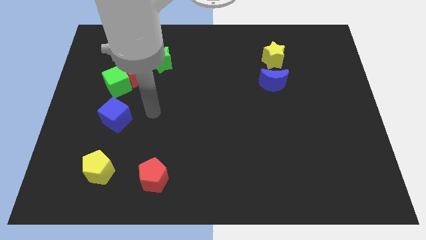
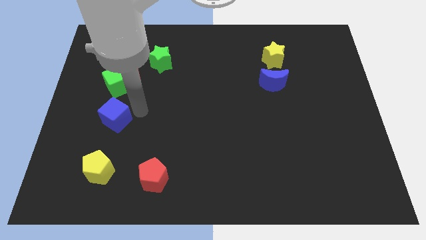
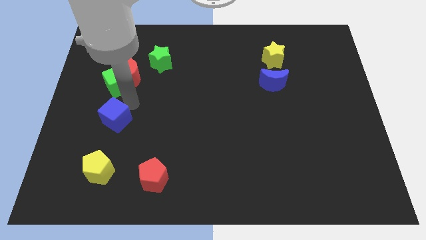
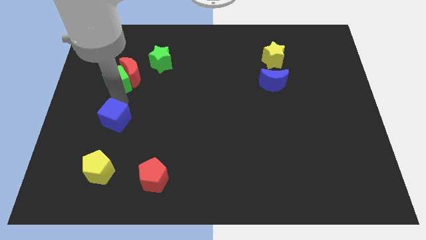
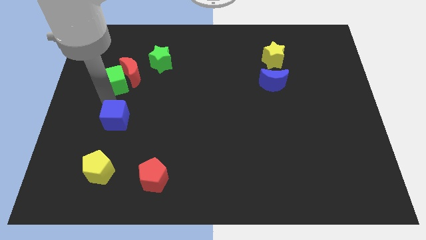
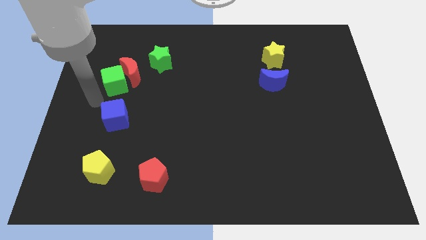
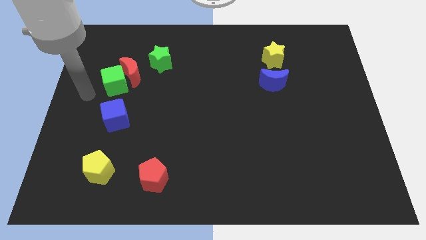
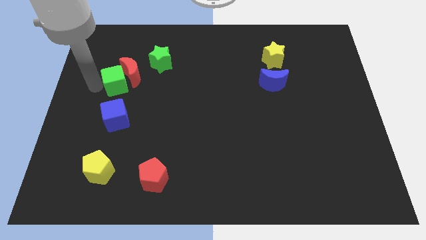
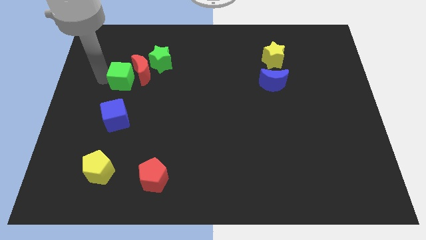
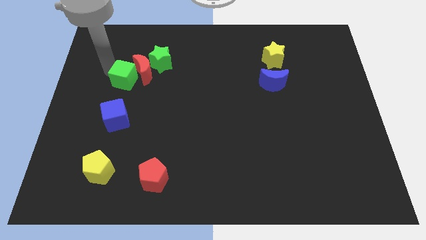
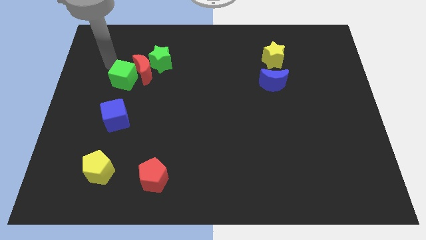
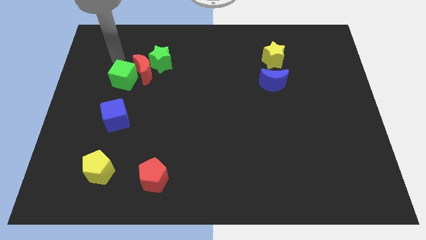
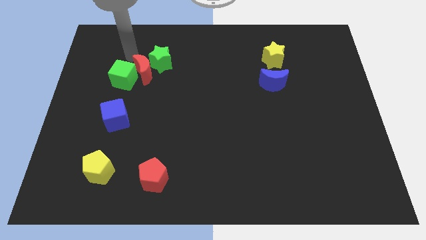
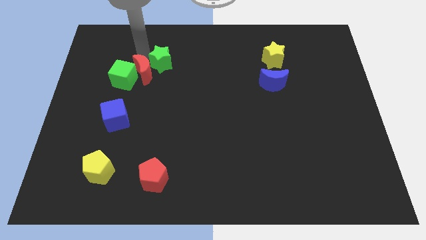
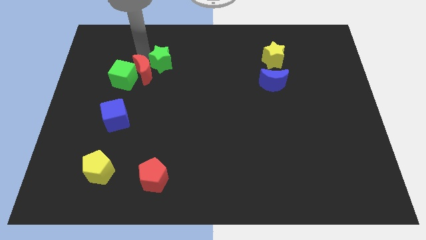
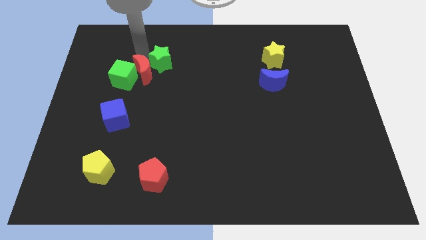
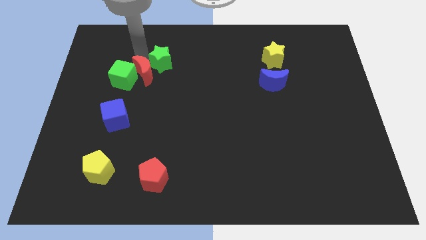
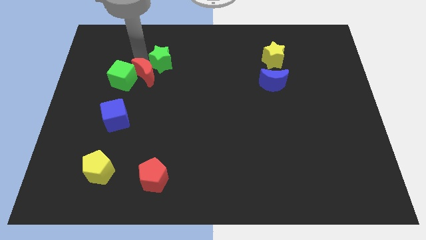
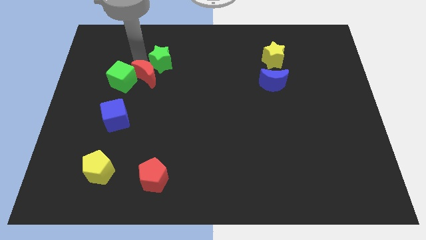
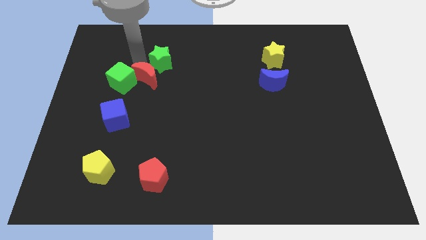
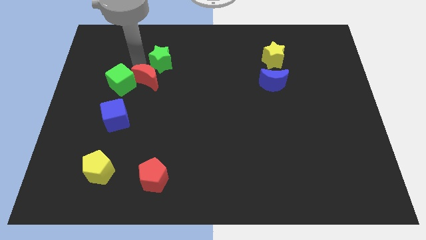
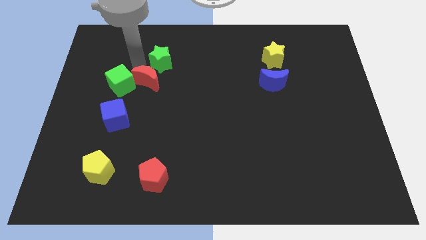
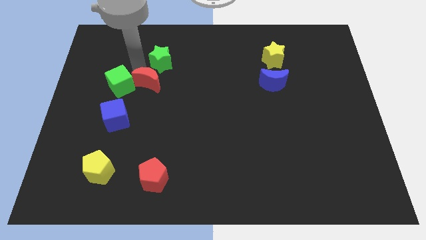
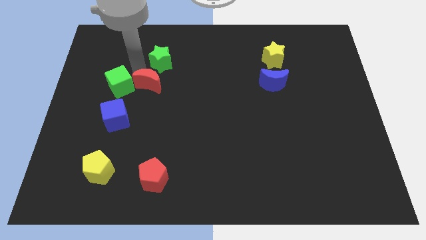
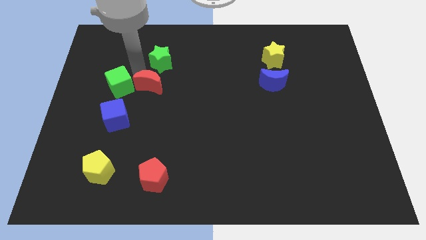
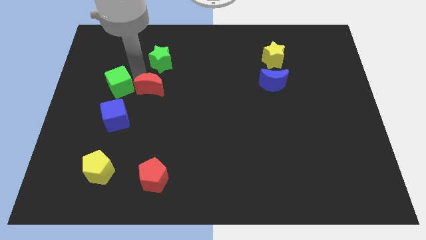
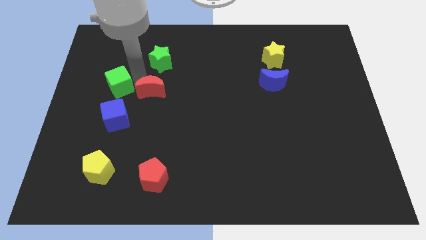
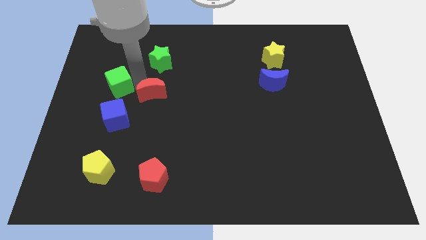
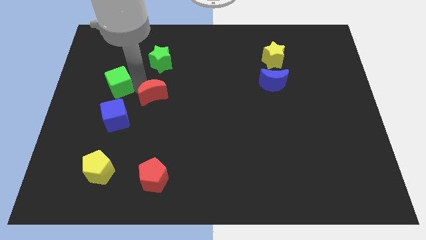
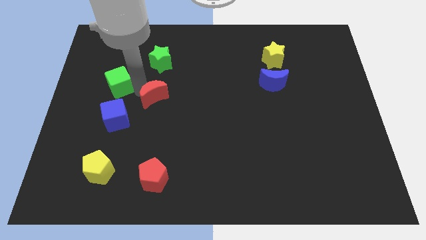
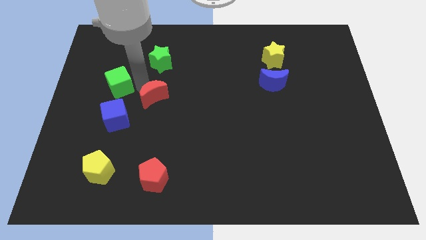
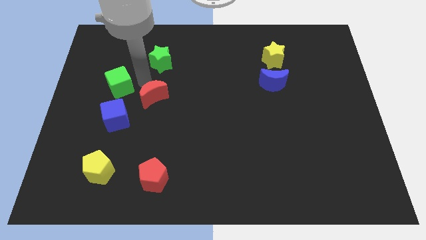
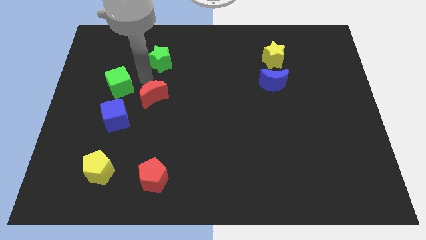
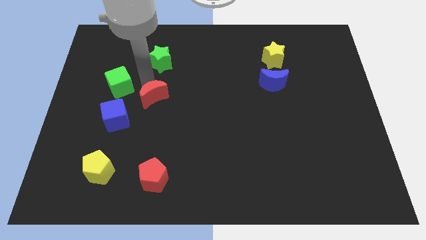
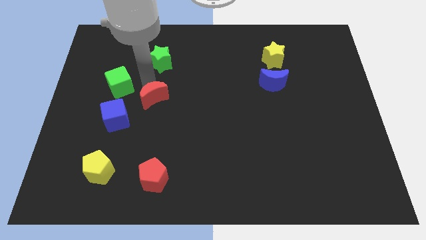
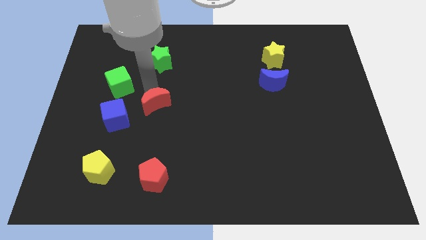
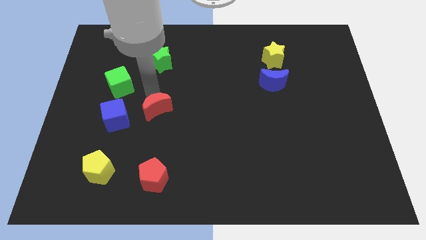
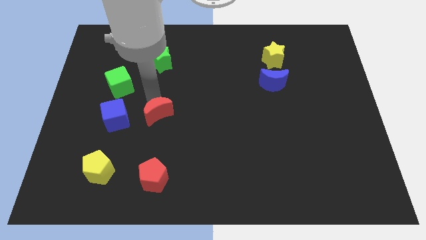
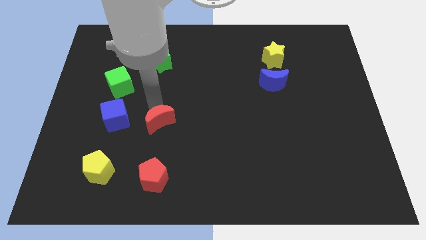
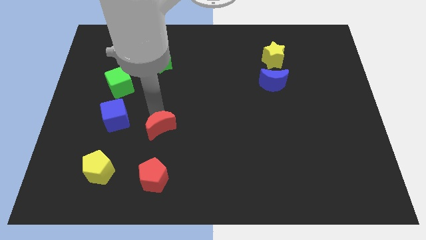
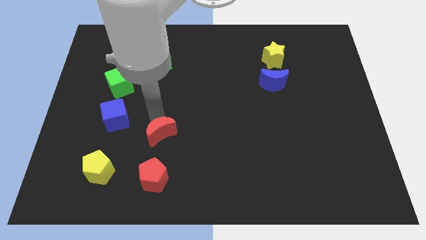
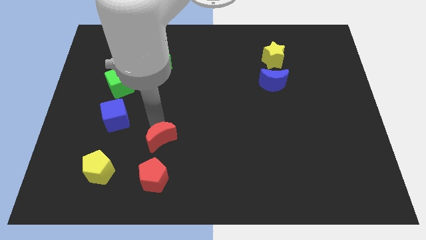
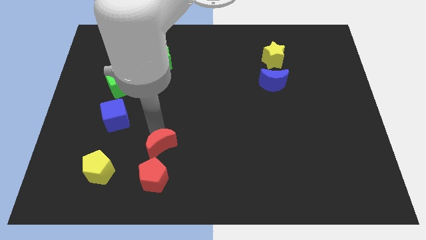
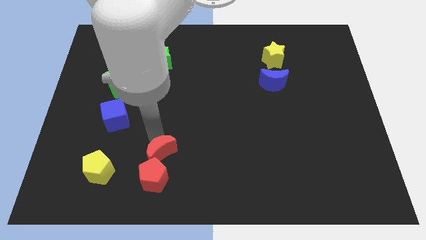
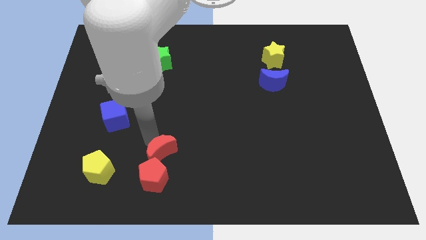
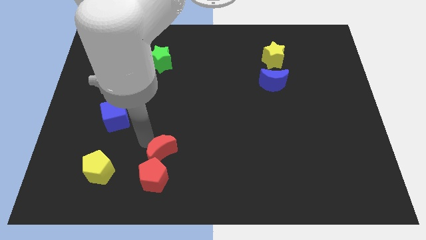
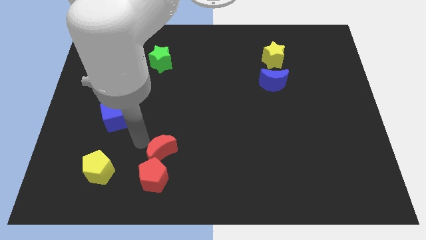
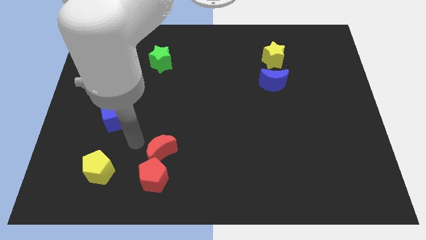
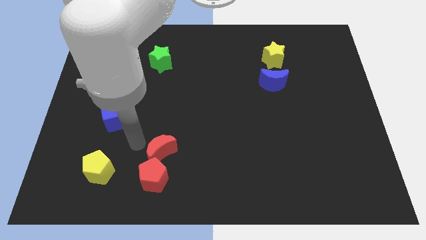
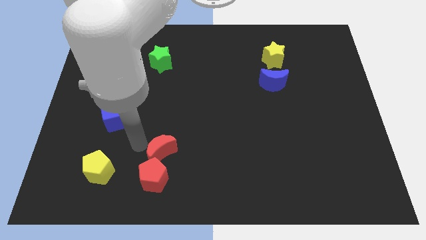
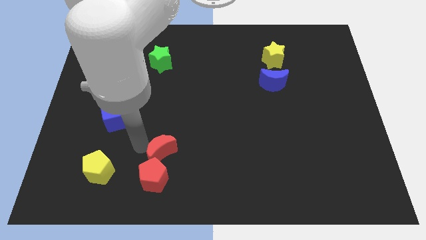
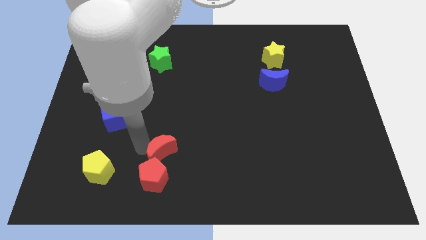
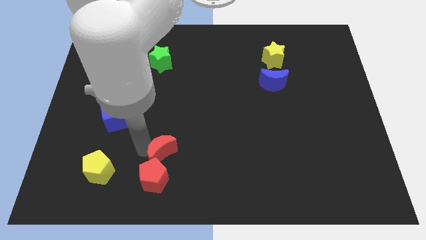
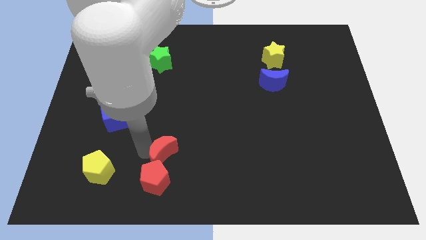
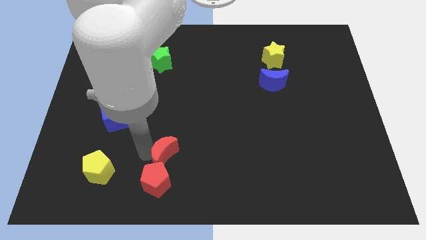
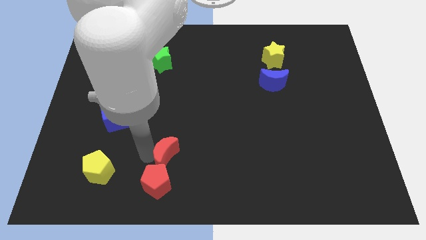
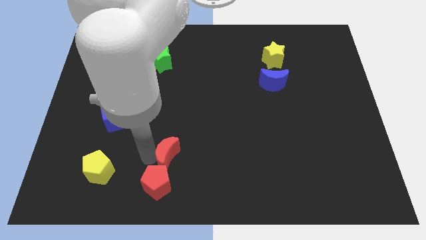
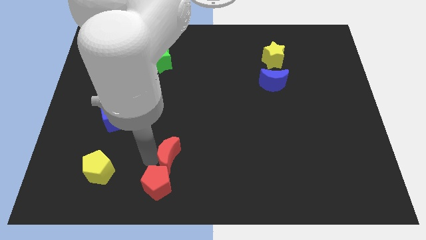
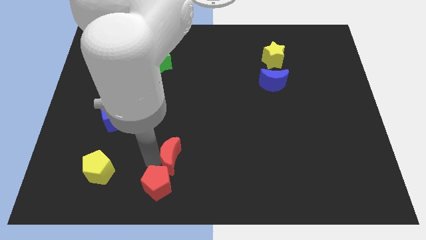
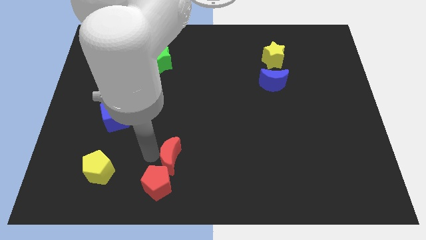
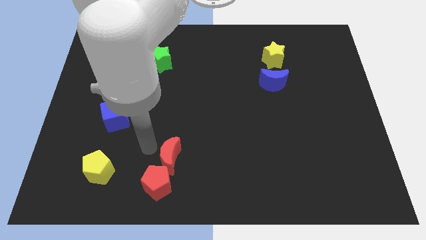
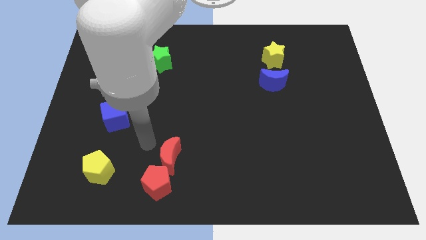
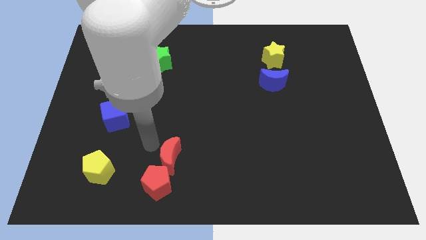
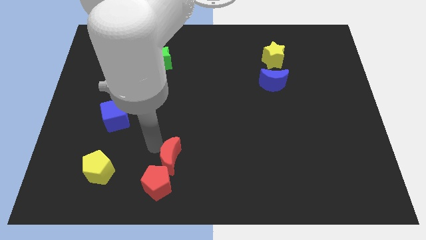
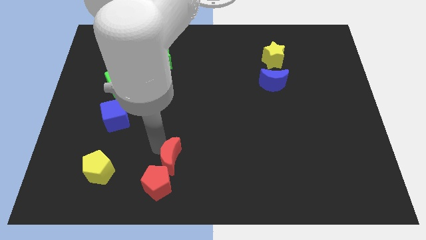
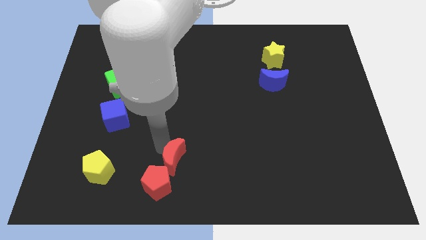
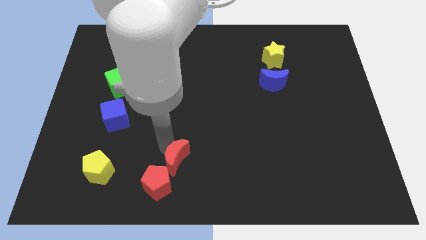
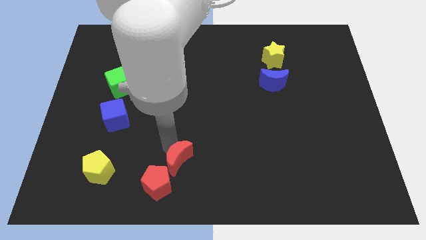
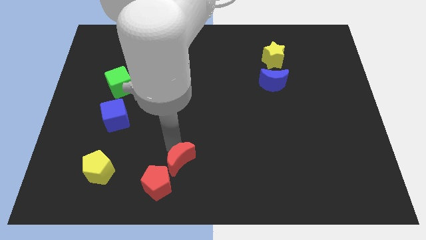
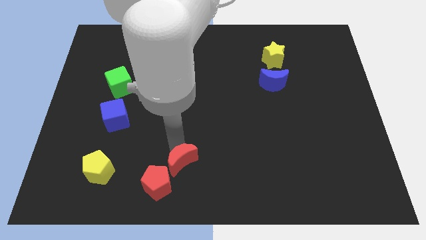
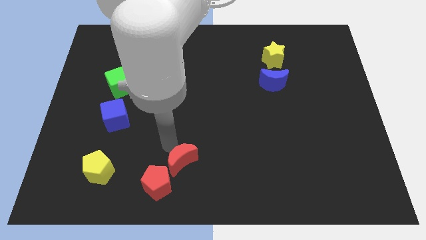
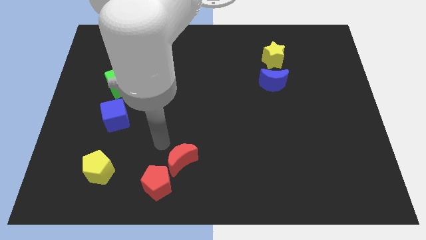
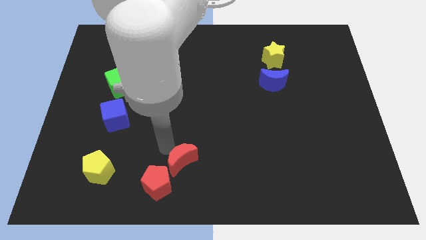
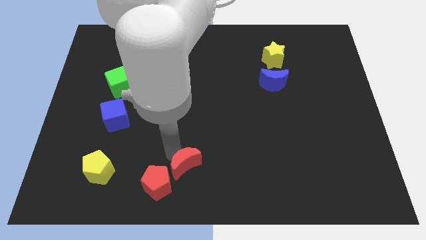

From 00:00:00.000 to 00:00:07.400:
put the red moon to the right side of the red pentagon

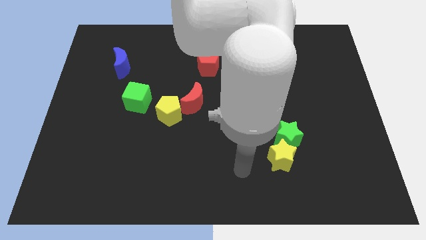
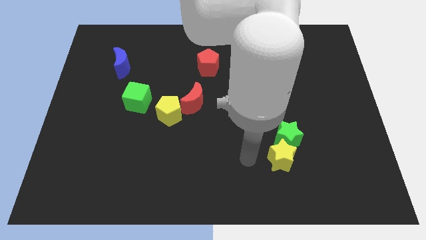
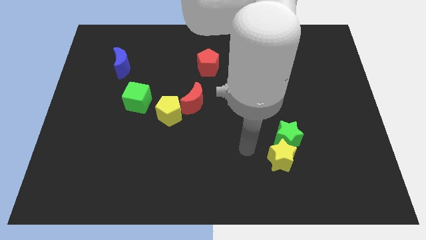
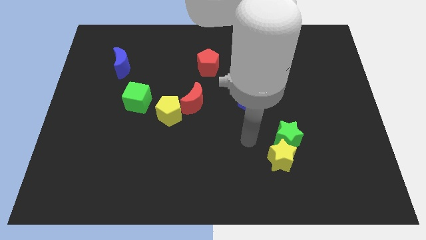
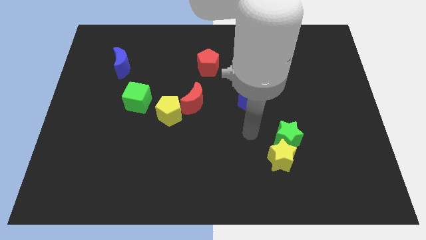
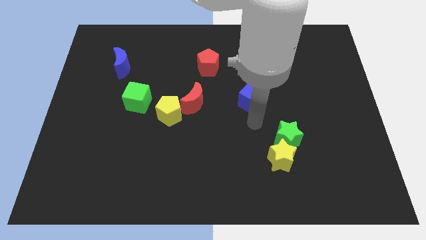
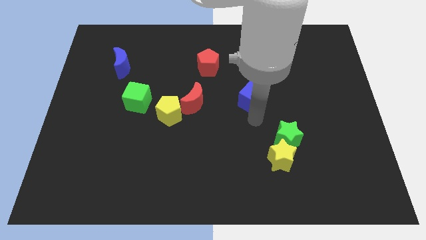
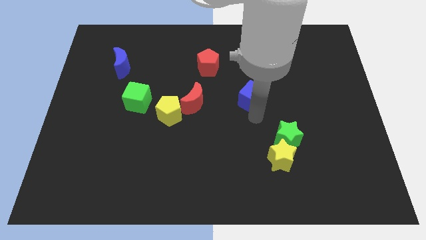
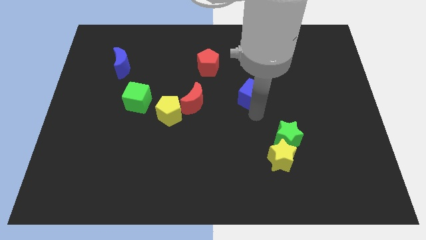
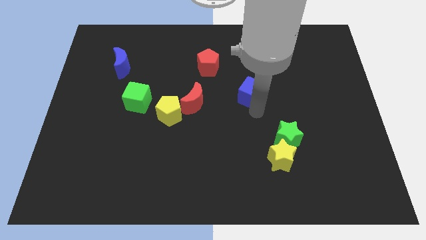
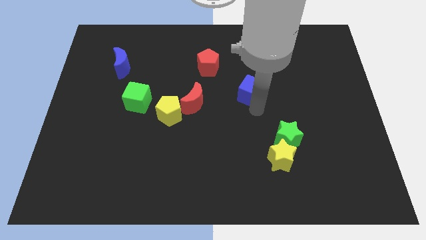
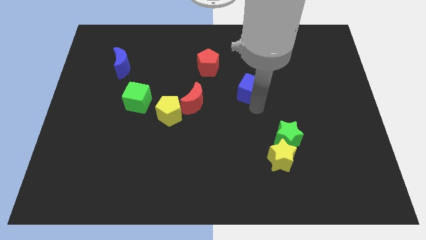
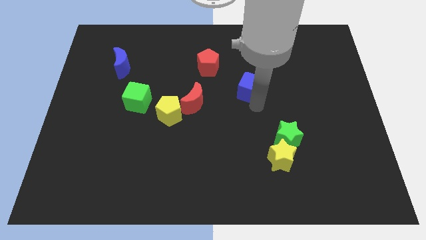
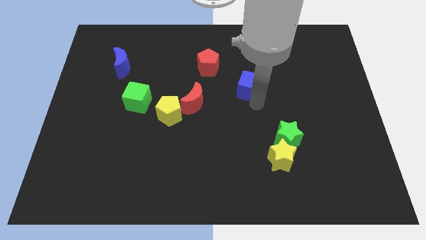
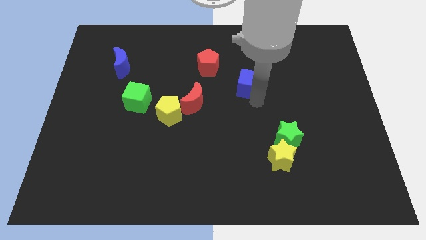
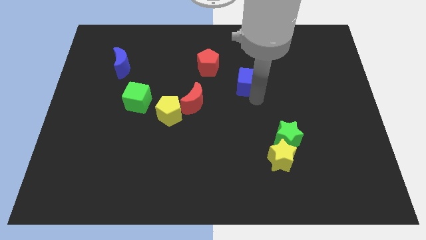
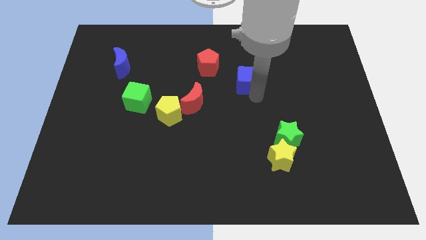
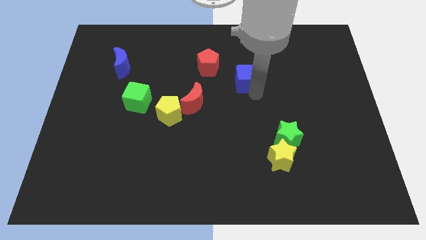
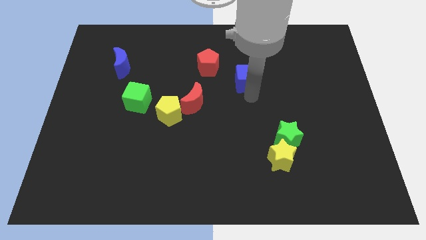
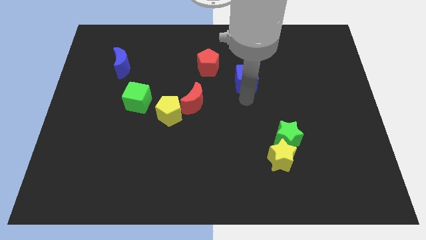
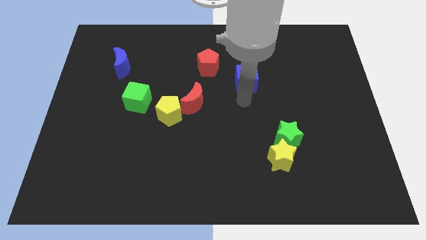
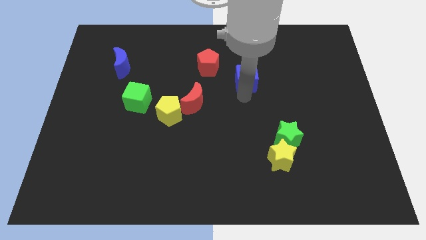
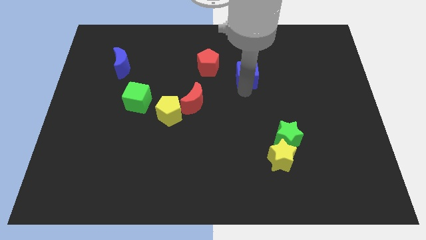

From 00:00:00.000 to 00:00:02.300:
slide the blue cube to the right of the red pentagon
